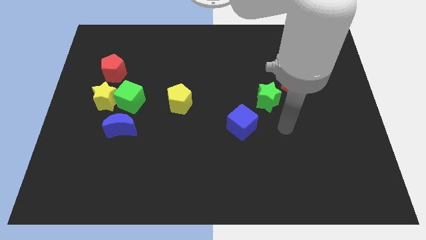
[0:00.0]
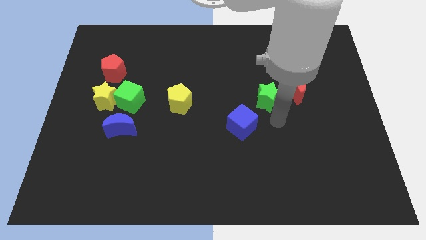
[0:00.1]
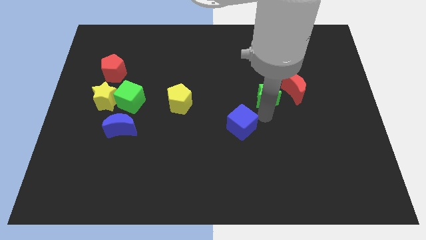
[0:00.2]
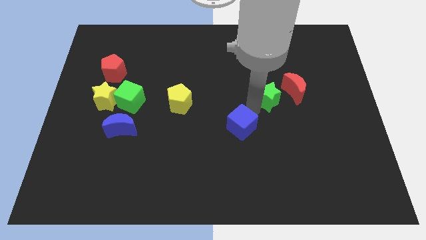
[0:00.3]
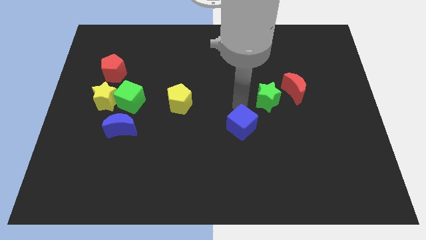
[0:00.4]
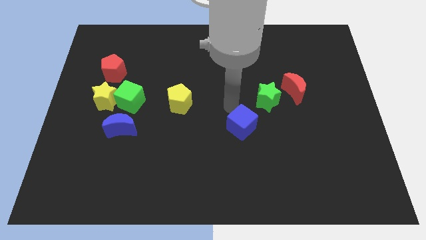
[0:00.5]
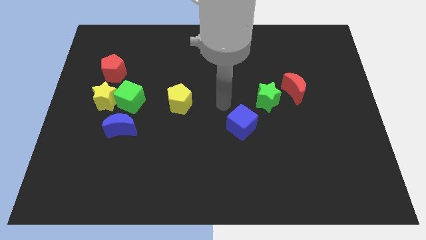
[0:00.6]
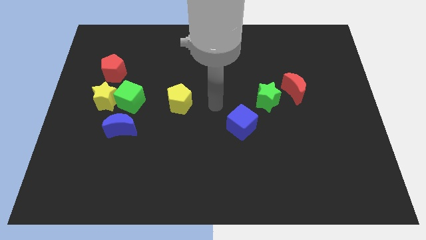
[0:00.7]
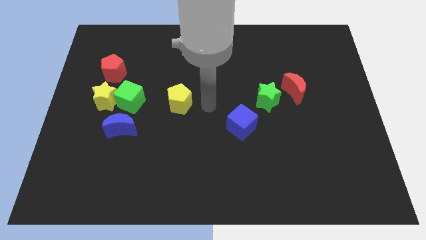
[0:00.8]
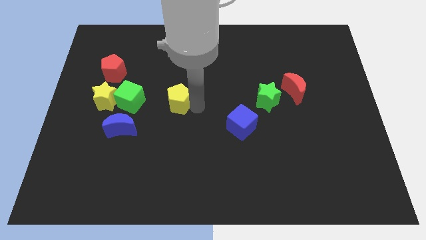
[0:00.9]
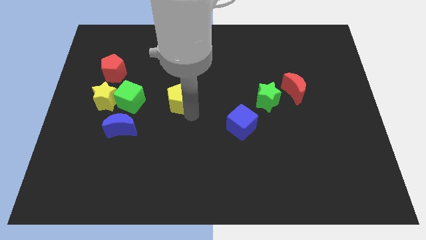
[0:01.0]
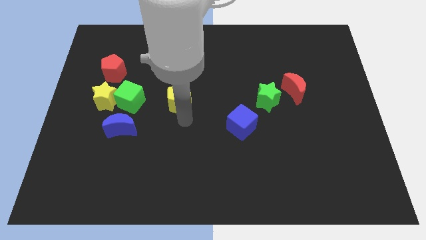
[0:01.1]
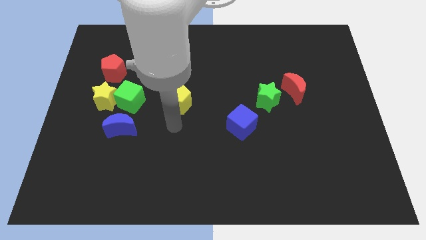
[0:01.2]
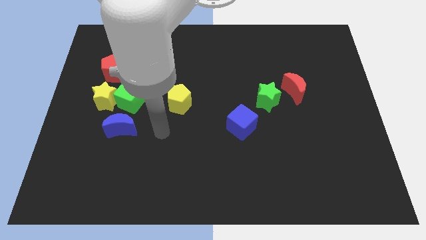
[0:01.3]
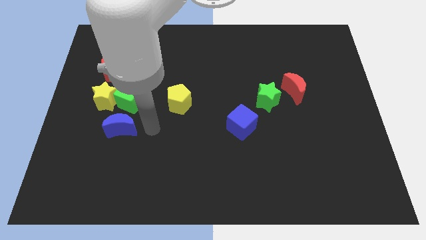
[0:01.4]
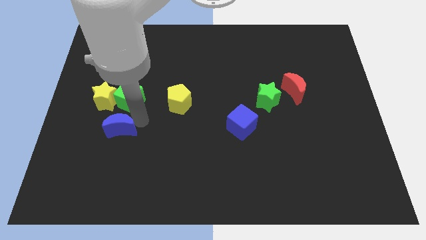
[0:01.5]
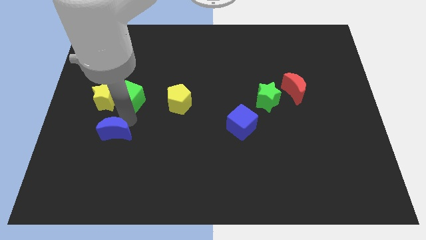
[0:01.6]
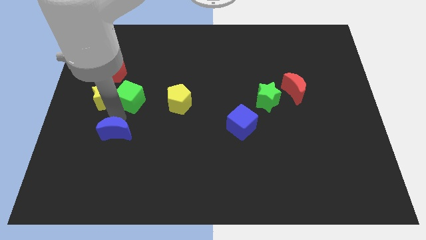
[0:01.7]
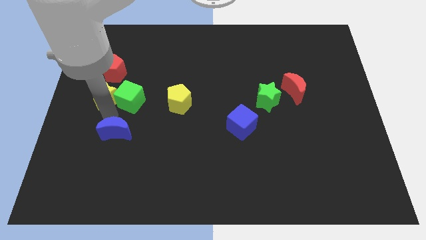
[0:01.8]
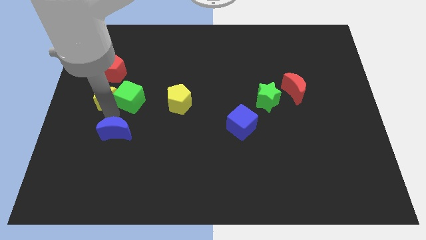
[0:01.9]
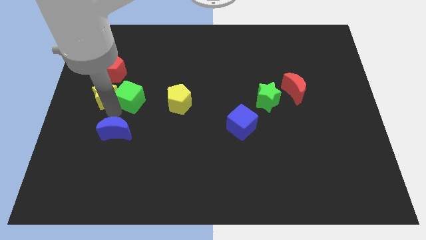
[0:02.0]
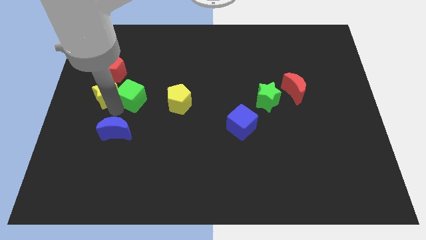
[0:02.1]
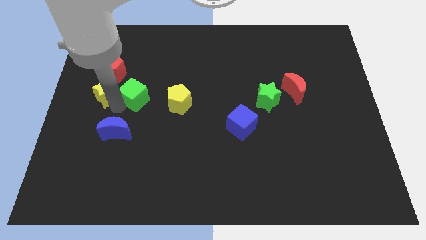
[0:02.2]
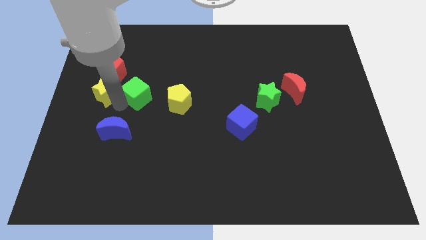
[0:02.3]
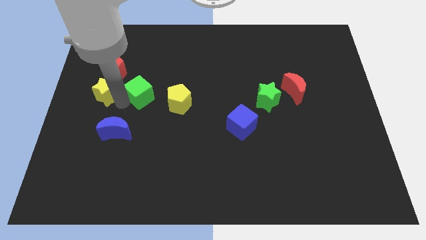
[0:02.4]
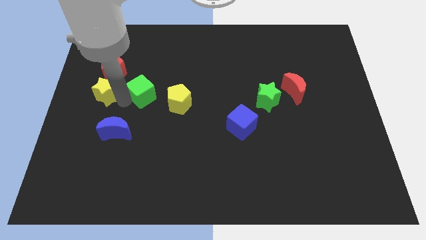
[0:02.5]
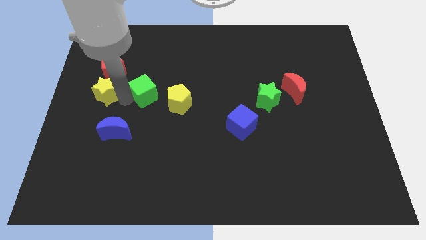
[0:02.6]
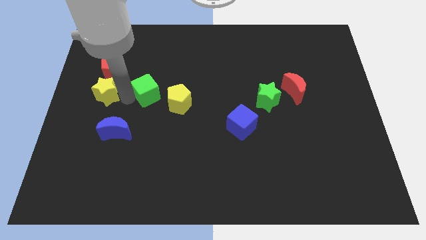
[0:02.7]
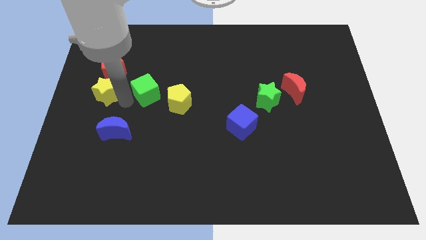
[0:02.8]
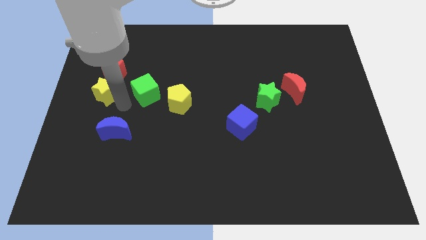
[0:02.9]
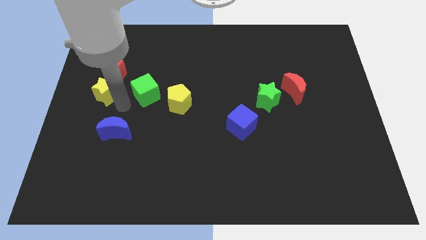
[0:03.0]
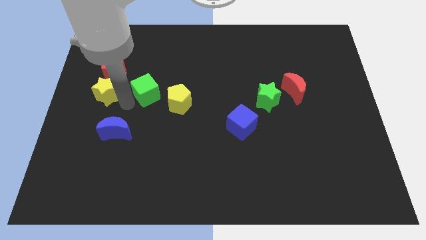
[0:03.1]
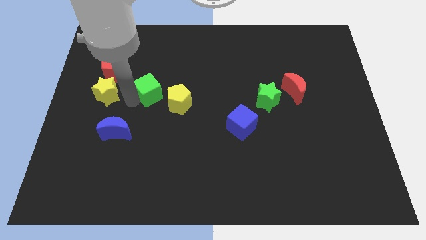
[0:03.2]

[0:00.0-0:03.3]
move the green cube away from the yellow star and blue moon

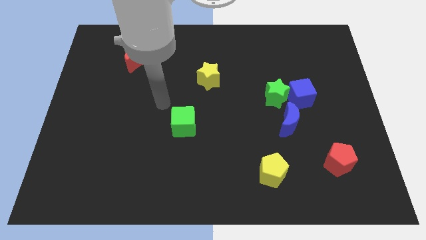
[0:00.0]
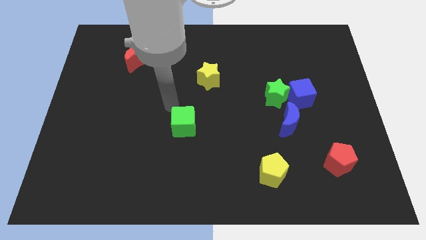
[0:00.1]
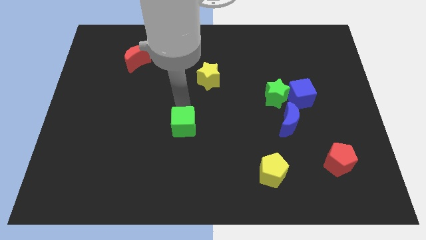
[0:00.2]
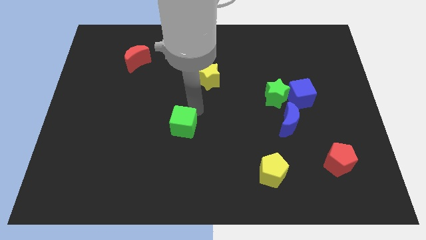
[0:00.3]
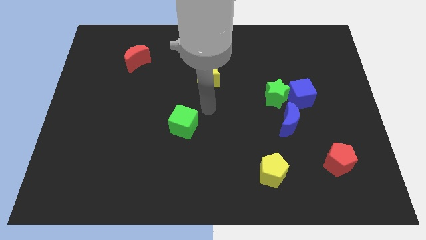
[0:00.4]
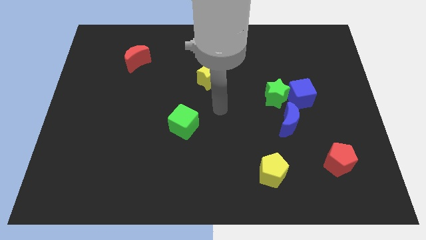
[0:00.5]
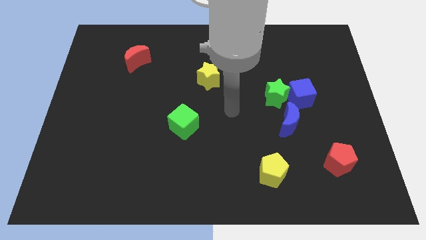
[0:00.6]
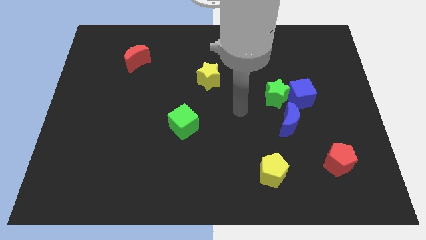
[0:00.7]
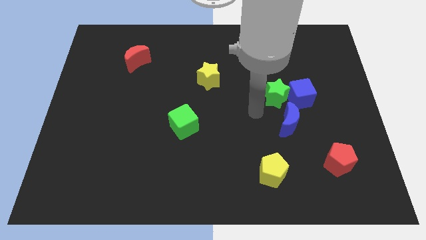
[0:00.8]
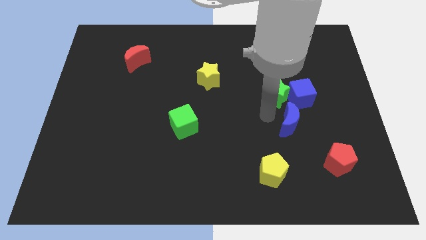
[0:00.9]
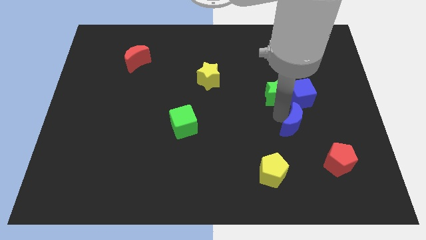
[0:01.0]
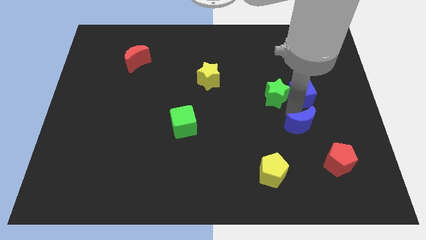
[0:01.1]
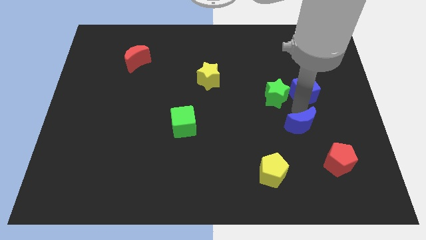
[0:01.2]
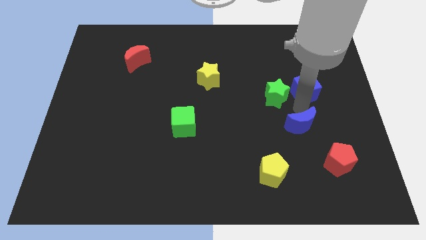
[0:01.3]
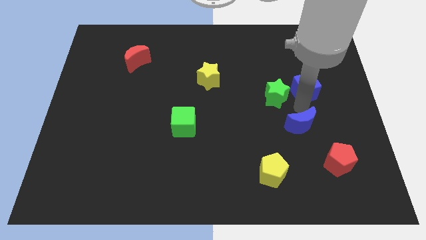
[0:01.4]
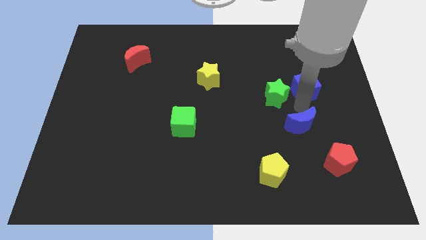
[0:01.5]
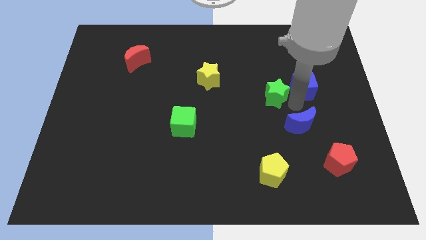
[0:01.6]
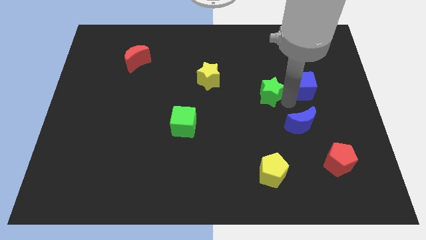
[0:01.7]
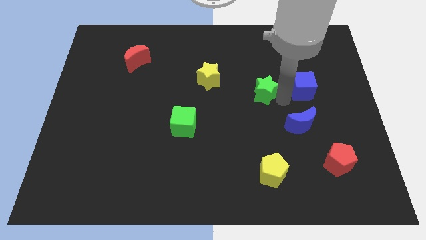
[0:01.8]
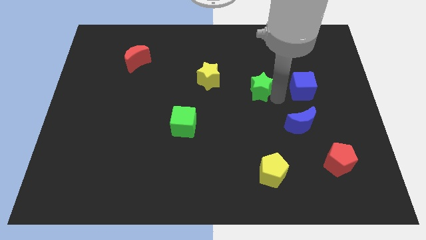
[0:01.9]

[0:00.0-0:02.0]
pull the green star apart from the blue cube and blue moon

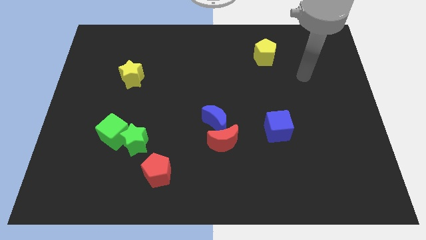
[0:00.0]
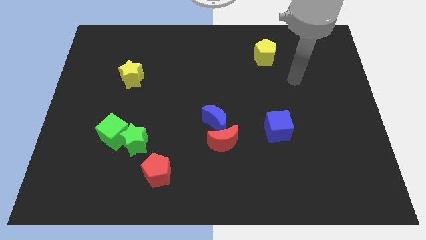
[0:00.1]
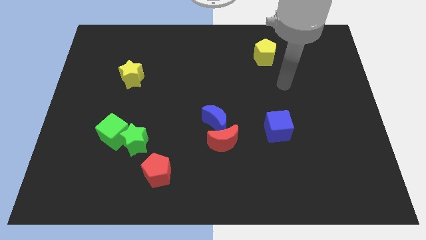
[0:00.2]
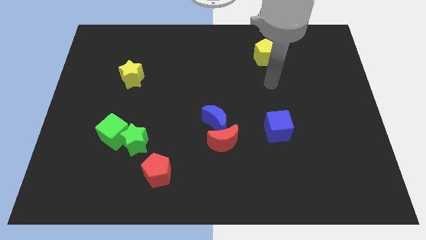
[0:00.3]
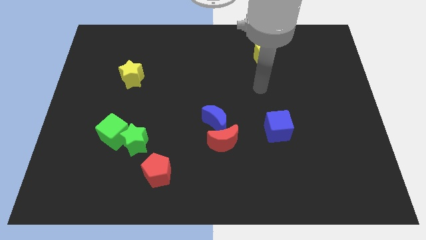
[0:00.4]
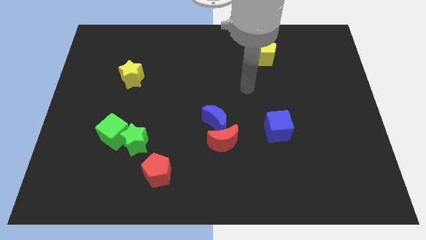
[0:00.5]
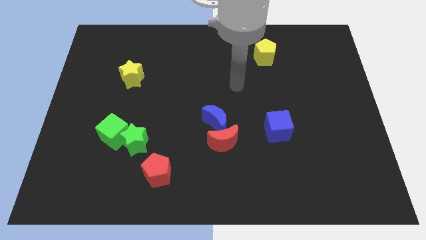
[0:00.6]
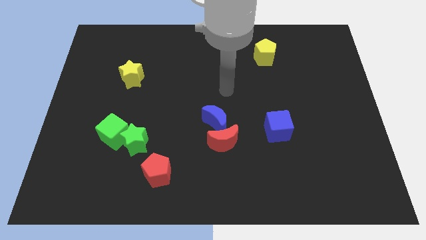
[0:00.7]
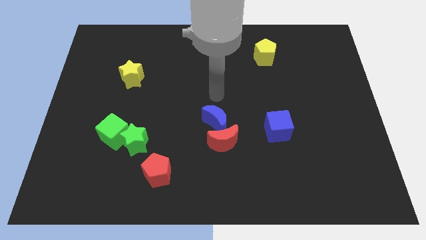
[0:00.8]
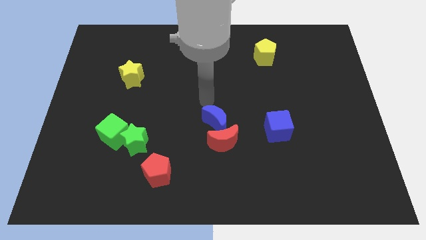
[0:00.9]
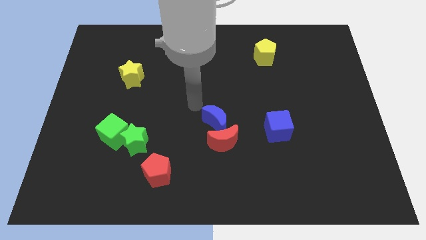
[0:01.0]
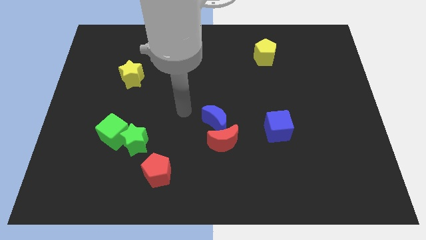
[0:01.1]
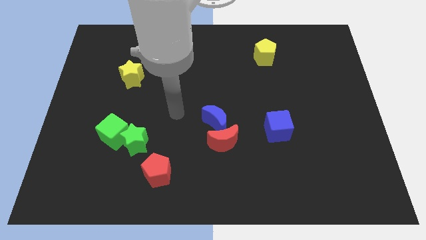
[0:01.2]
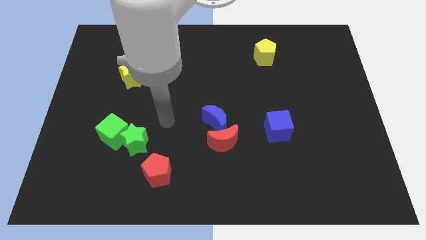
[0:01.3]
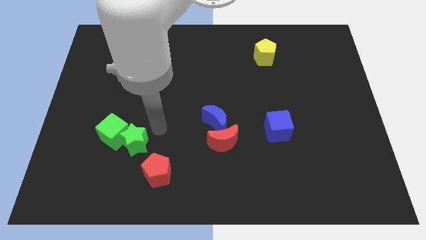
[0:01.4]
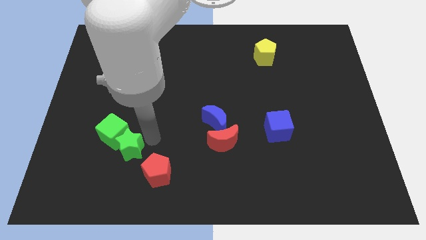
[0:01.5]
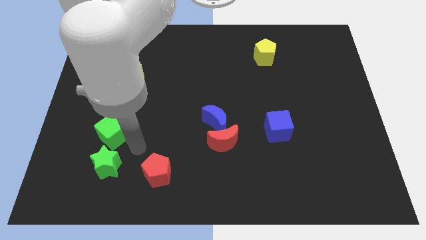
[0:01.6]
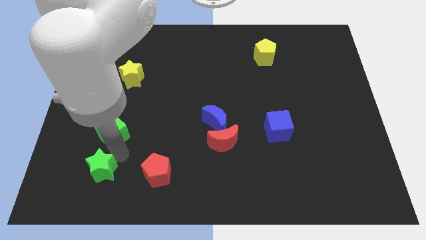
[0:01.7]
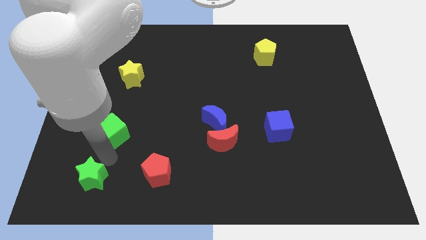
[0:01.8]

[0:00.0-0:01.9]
move the green cube away from the green star

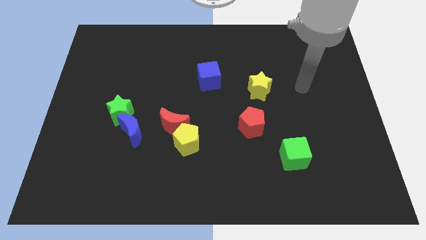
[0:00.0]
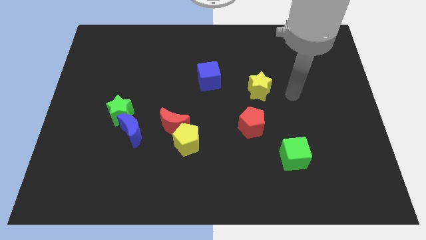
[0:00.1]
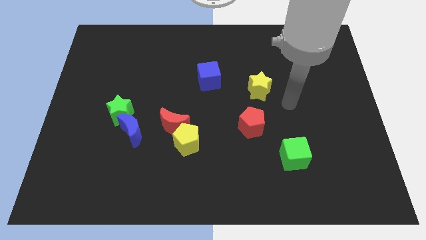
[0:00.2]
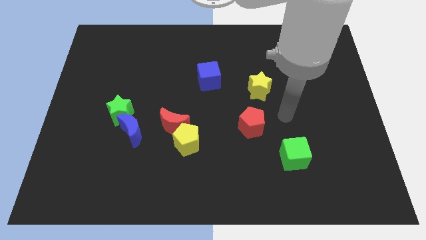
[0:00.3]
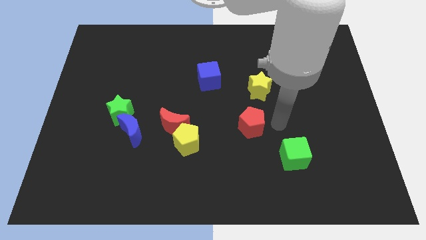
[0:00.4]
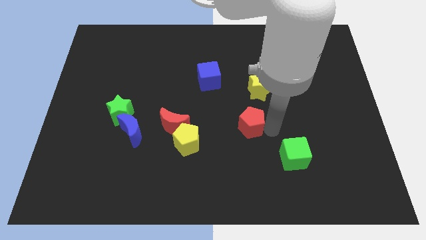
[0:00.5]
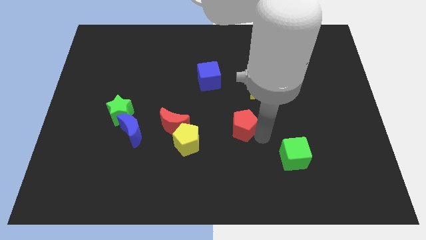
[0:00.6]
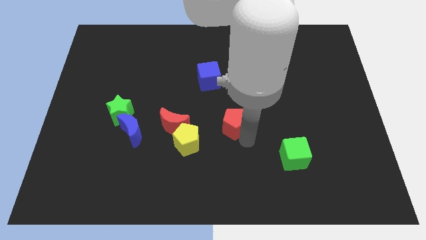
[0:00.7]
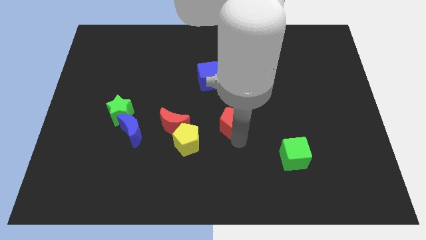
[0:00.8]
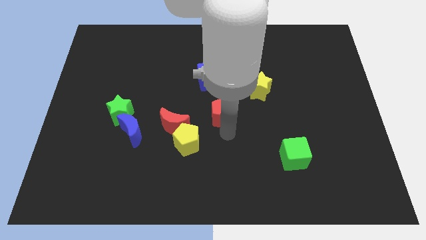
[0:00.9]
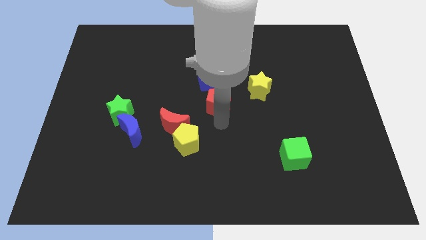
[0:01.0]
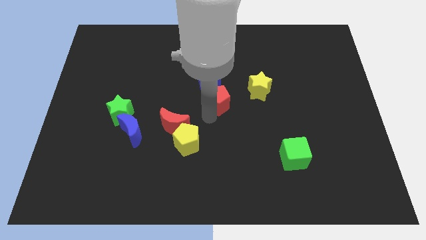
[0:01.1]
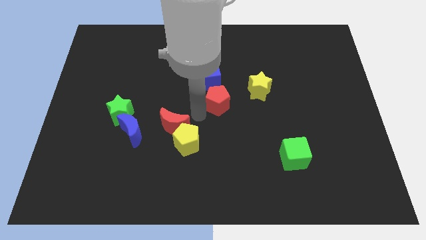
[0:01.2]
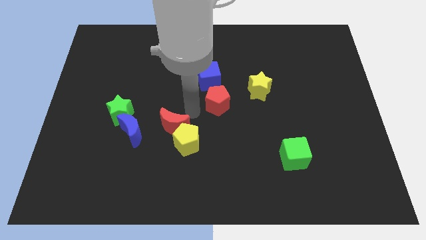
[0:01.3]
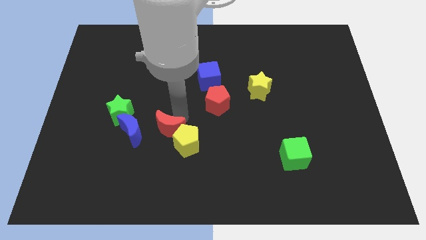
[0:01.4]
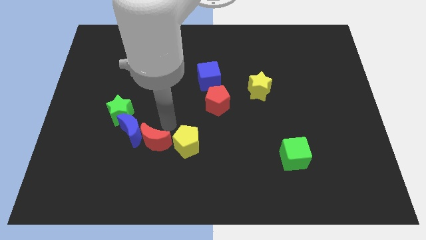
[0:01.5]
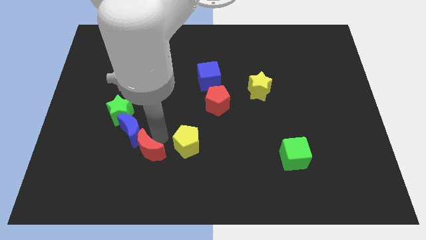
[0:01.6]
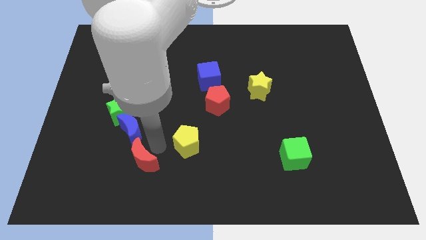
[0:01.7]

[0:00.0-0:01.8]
move the yellow pentagon away from the red moon

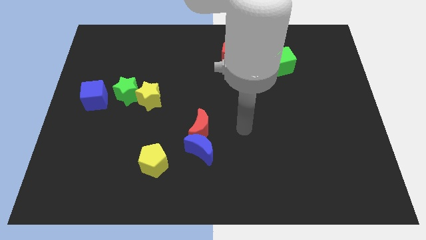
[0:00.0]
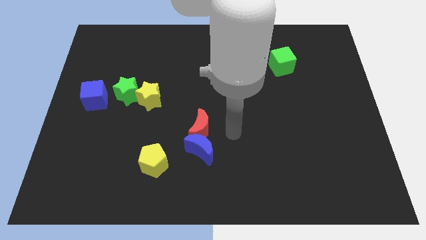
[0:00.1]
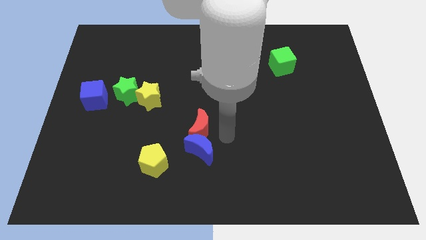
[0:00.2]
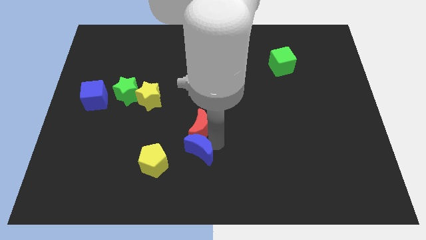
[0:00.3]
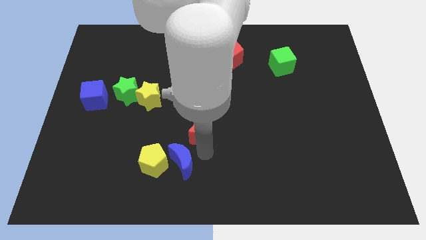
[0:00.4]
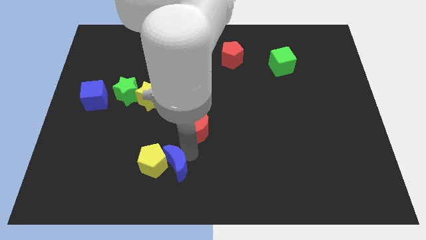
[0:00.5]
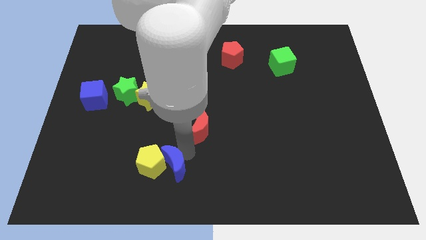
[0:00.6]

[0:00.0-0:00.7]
move the red moon away from the blue moon
